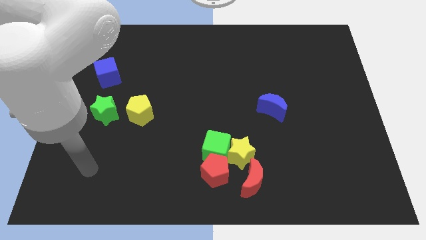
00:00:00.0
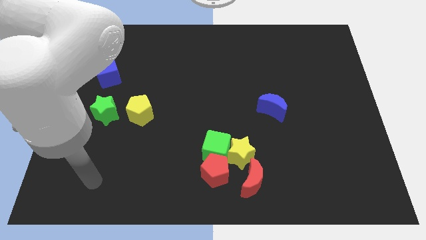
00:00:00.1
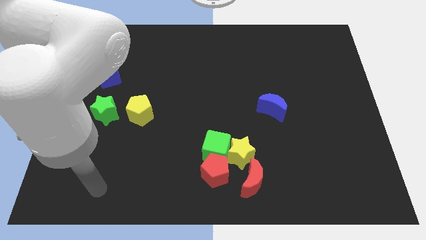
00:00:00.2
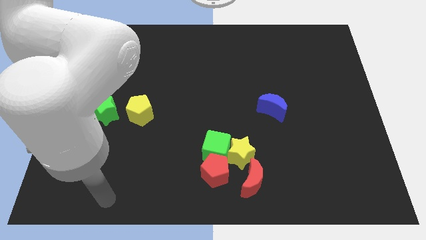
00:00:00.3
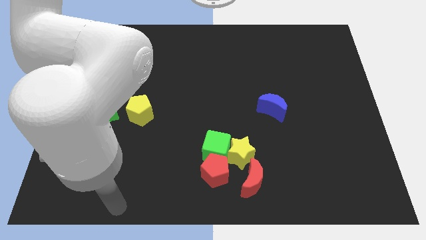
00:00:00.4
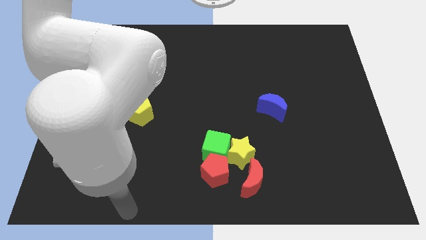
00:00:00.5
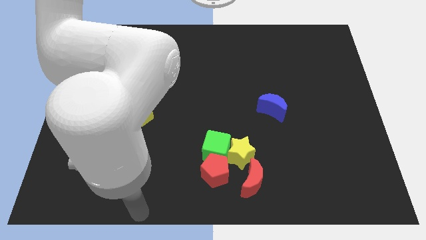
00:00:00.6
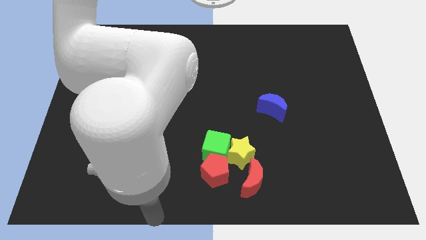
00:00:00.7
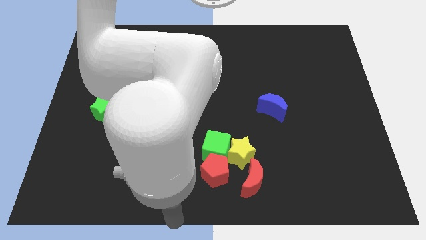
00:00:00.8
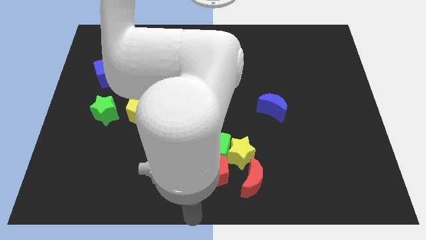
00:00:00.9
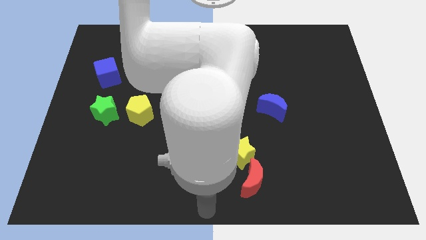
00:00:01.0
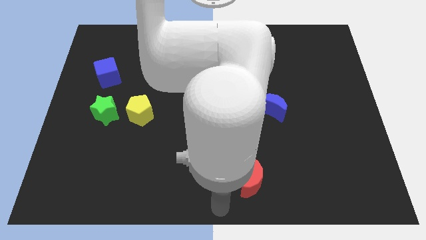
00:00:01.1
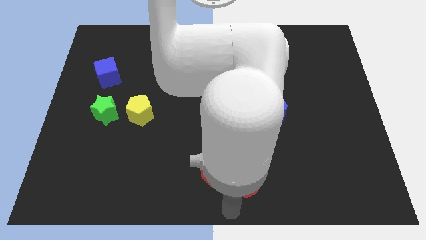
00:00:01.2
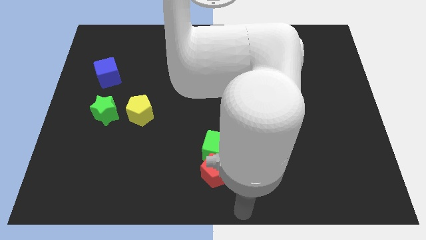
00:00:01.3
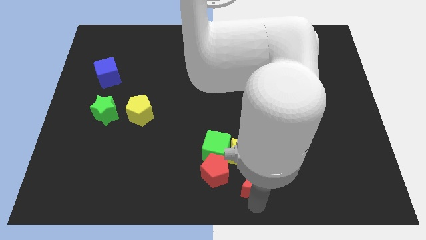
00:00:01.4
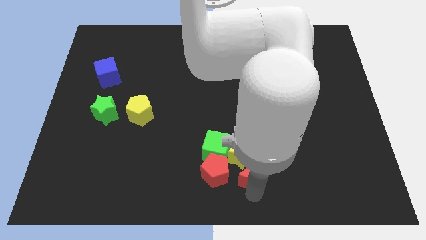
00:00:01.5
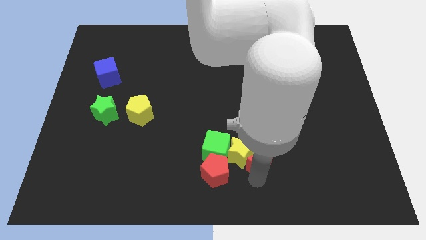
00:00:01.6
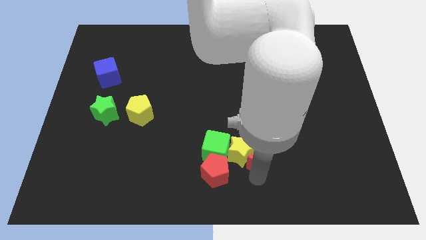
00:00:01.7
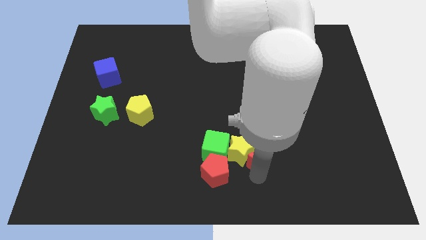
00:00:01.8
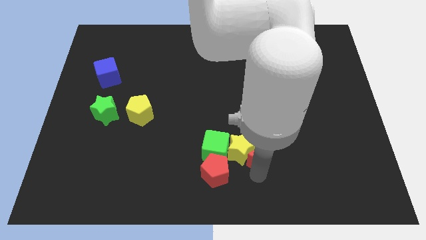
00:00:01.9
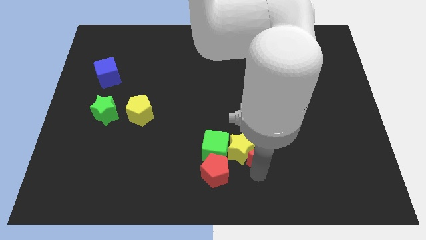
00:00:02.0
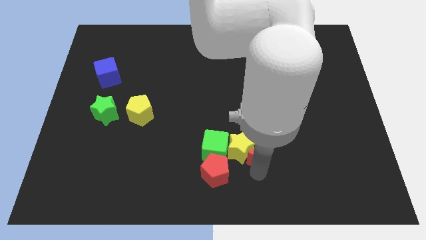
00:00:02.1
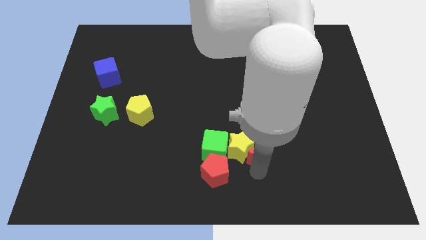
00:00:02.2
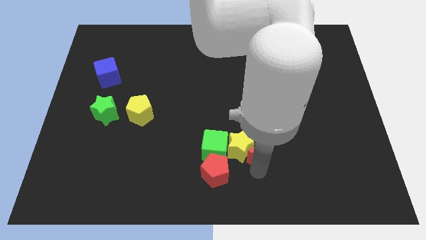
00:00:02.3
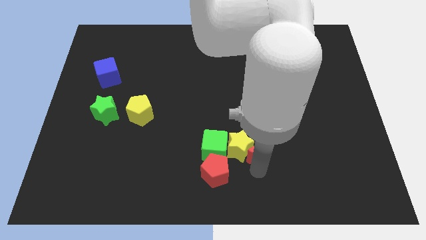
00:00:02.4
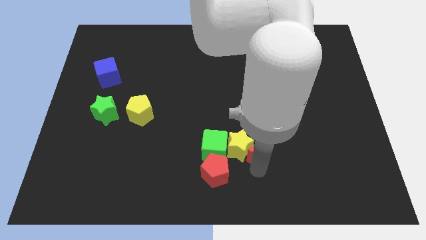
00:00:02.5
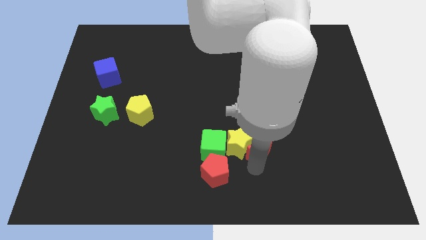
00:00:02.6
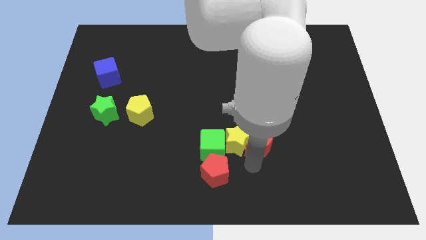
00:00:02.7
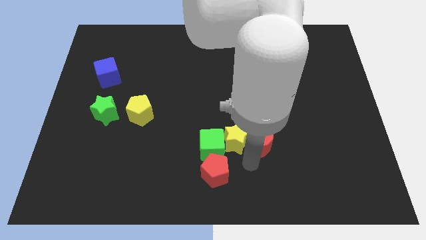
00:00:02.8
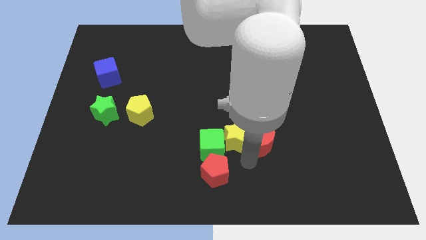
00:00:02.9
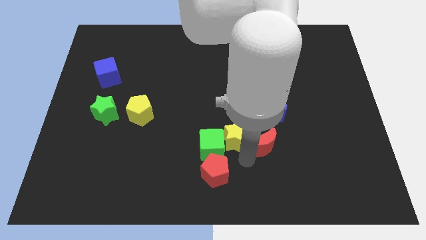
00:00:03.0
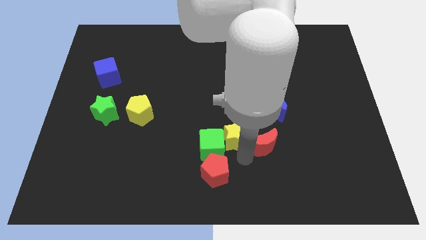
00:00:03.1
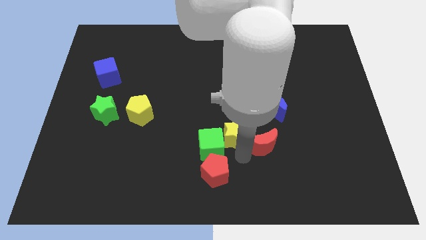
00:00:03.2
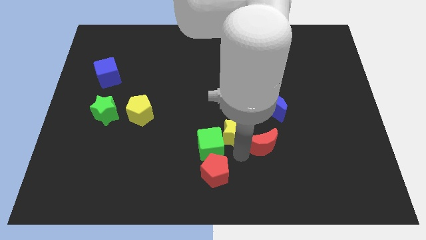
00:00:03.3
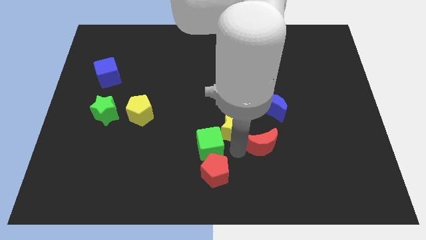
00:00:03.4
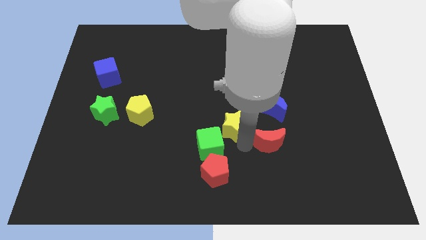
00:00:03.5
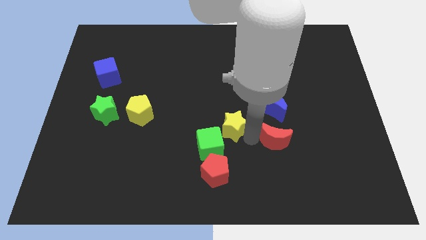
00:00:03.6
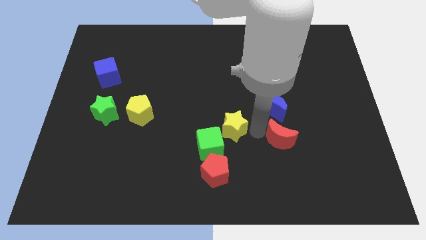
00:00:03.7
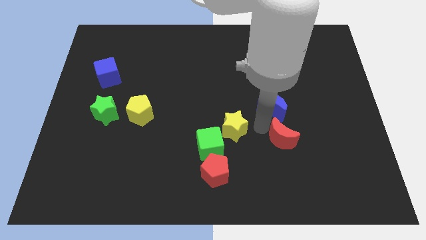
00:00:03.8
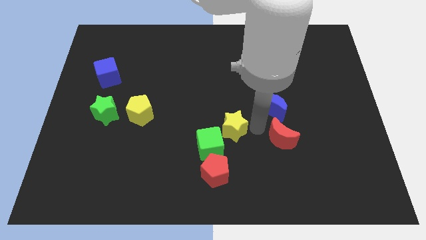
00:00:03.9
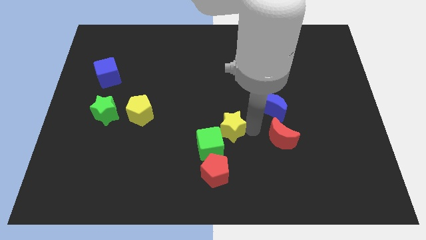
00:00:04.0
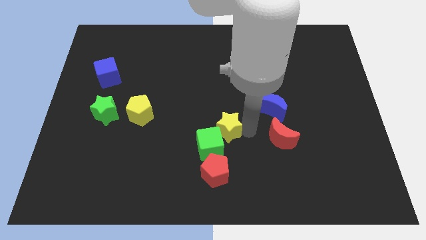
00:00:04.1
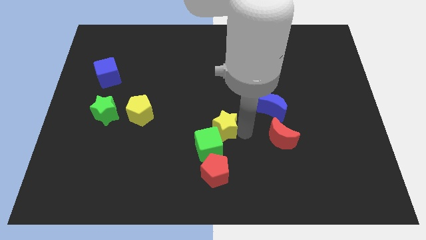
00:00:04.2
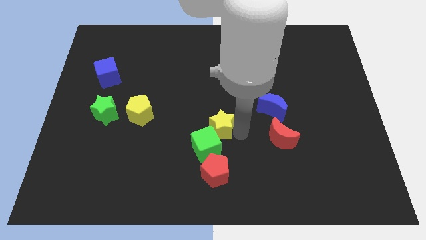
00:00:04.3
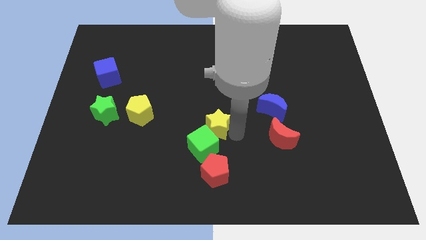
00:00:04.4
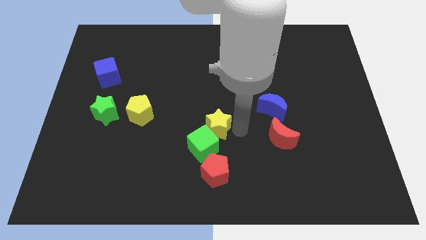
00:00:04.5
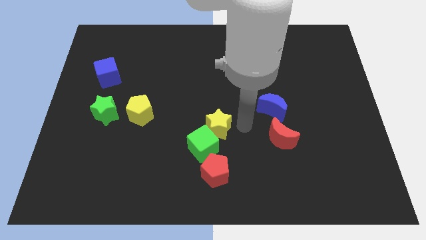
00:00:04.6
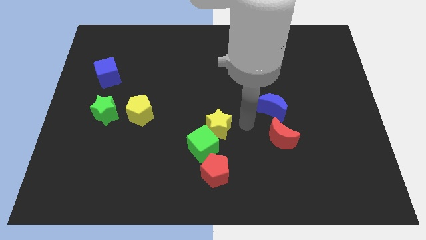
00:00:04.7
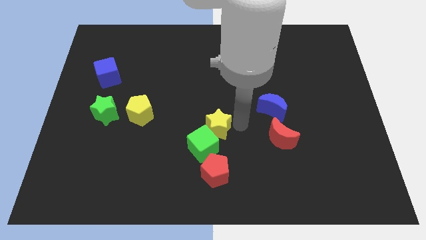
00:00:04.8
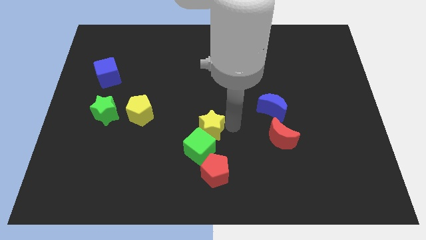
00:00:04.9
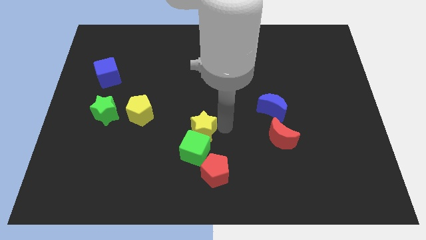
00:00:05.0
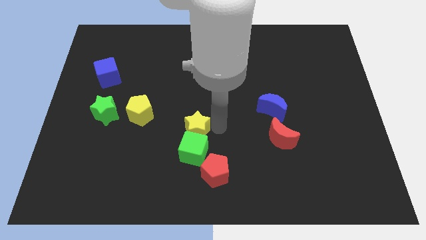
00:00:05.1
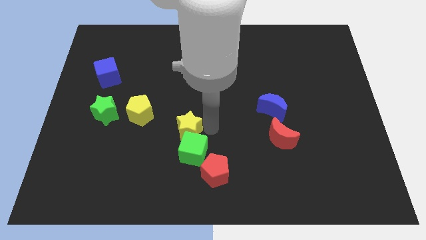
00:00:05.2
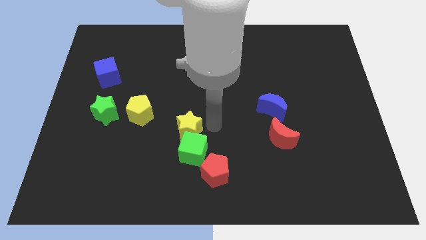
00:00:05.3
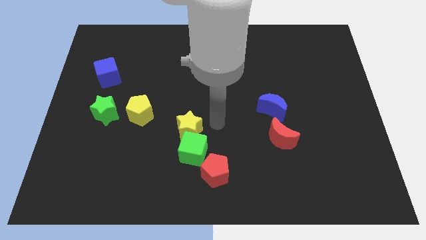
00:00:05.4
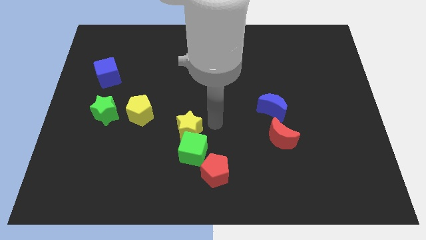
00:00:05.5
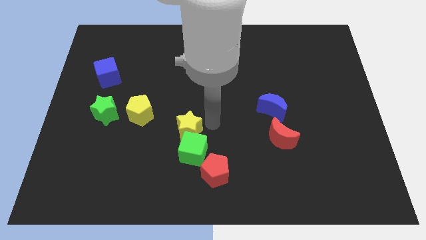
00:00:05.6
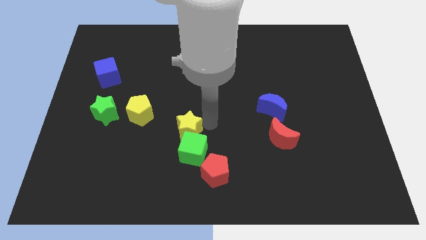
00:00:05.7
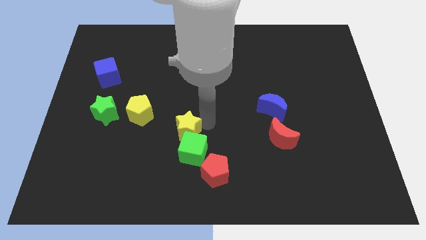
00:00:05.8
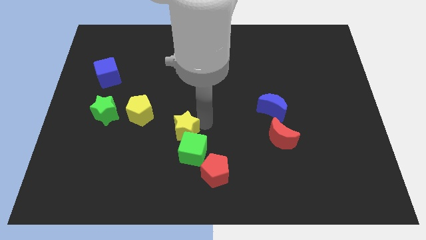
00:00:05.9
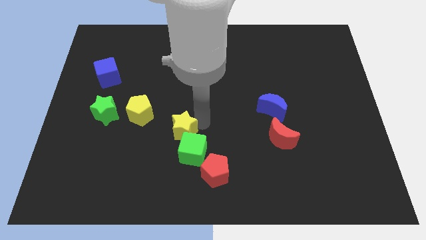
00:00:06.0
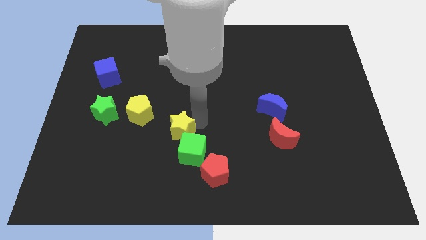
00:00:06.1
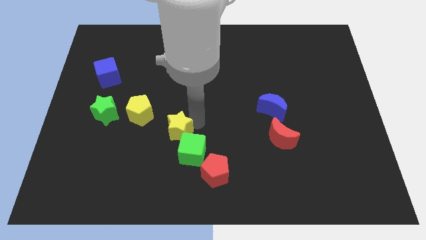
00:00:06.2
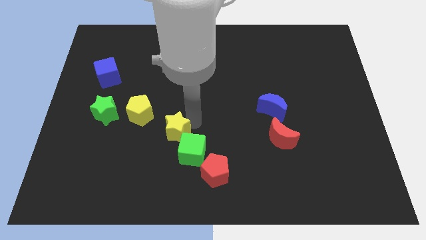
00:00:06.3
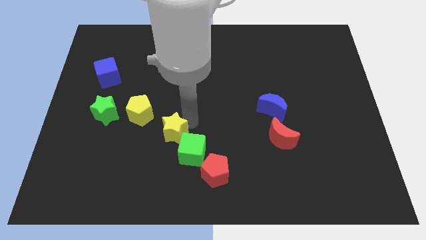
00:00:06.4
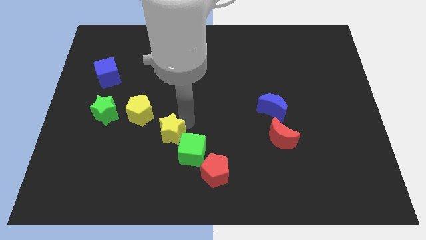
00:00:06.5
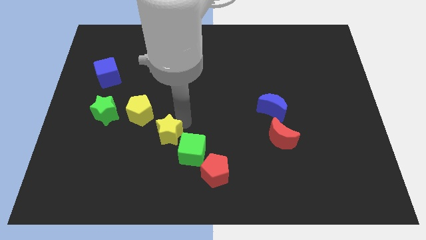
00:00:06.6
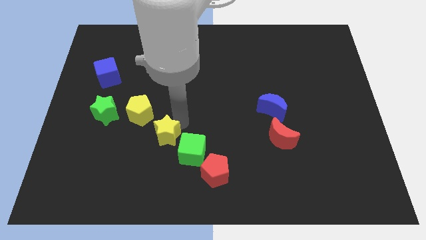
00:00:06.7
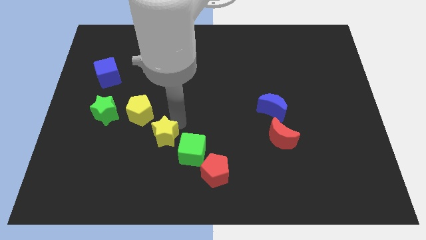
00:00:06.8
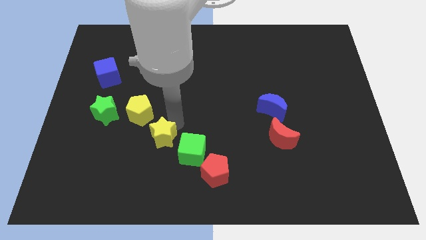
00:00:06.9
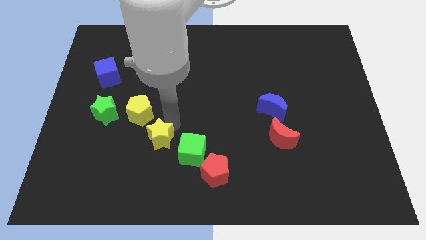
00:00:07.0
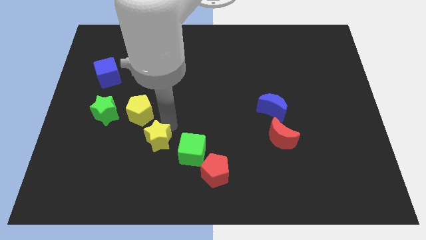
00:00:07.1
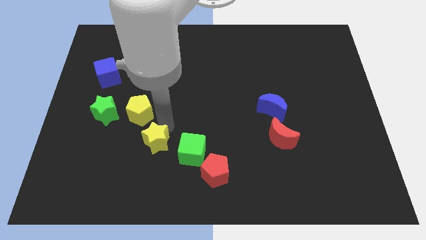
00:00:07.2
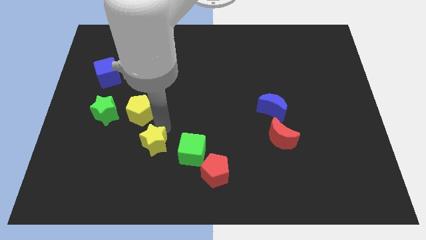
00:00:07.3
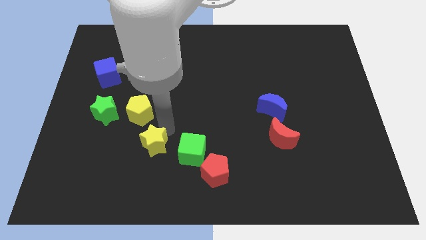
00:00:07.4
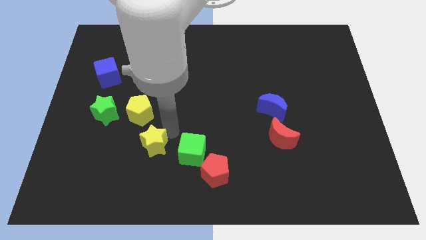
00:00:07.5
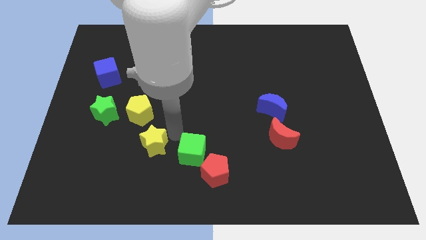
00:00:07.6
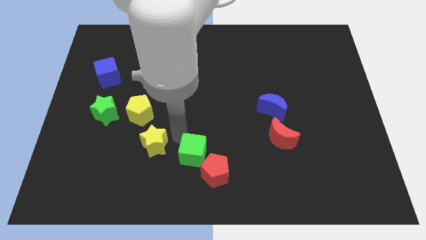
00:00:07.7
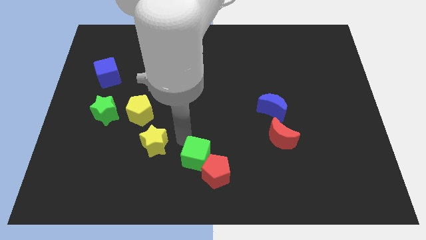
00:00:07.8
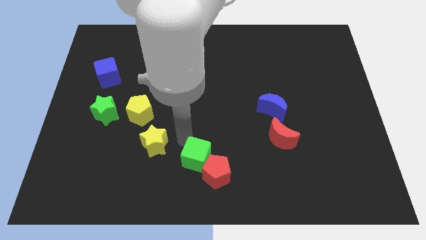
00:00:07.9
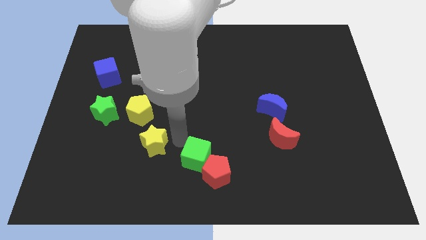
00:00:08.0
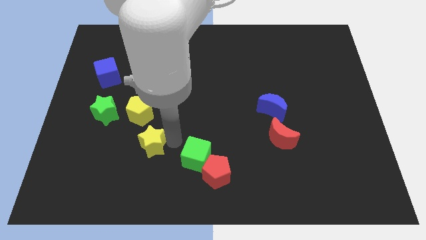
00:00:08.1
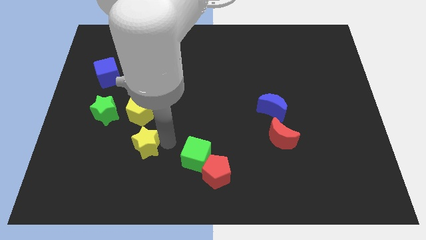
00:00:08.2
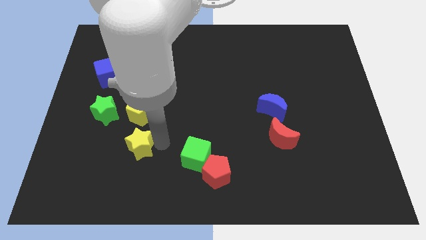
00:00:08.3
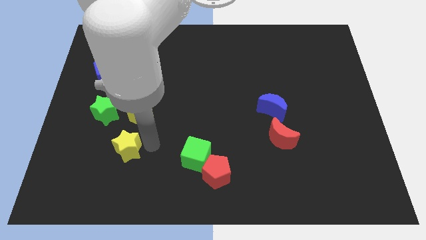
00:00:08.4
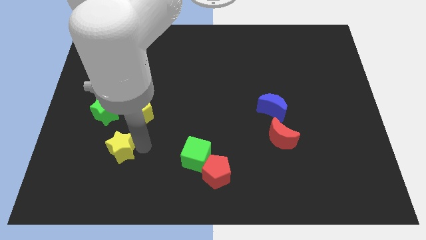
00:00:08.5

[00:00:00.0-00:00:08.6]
push the yellow star to the bottom of the green star
